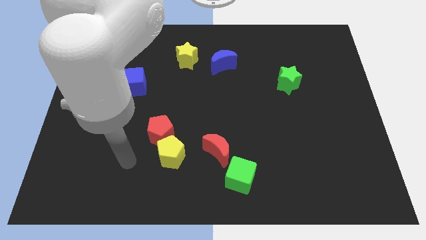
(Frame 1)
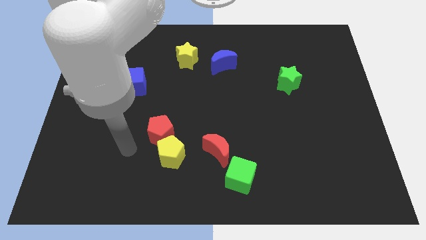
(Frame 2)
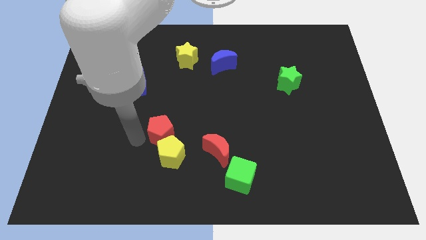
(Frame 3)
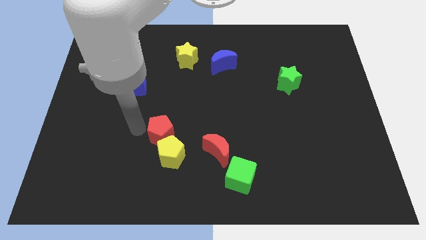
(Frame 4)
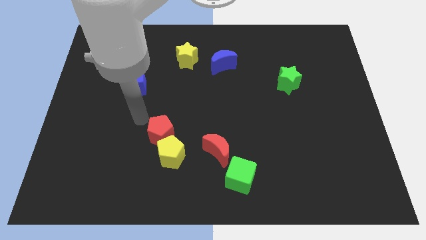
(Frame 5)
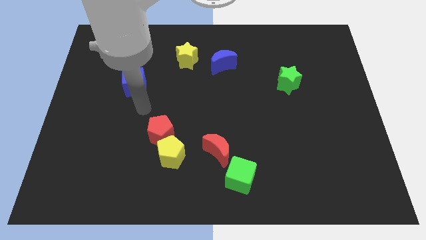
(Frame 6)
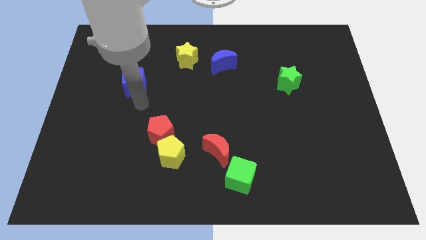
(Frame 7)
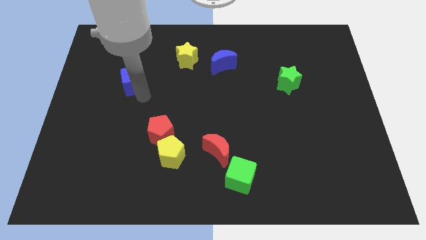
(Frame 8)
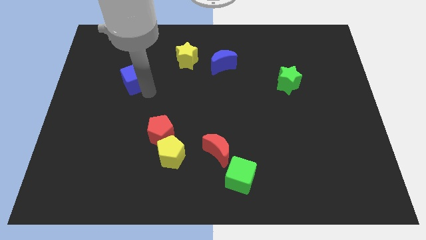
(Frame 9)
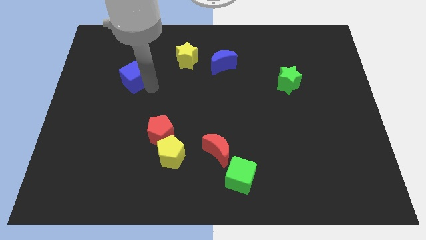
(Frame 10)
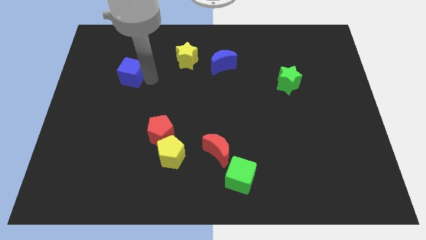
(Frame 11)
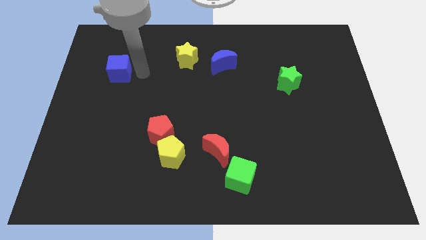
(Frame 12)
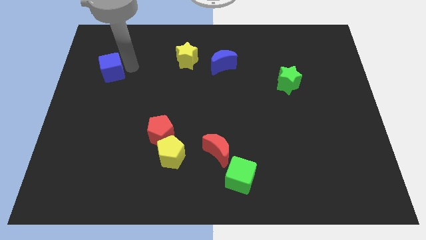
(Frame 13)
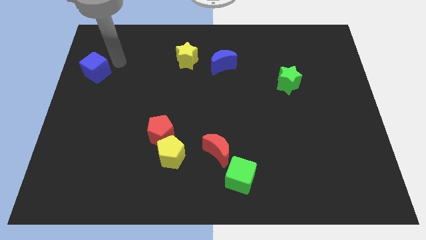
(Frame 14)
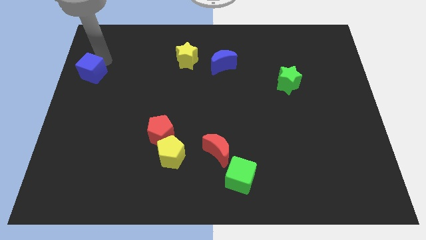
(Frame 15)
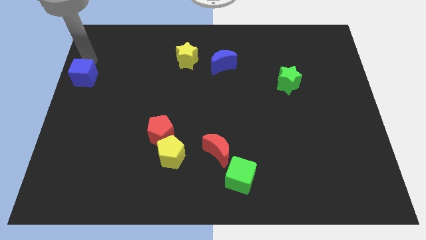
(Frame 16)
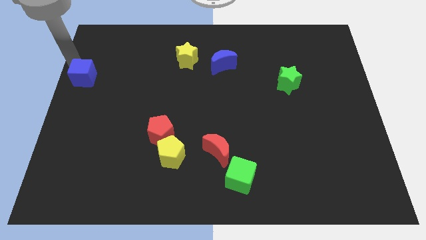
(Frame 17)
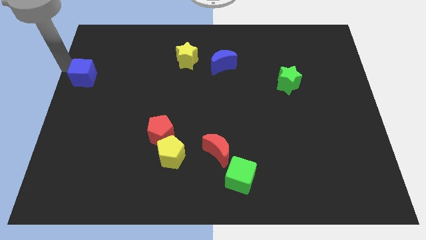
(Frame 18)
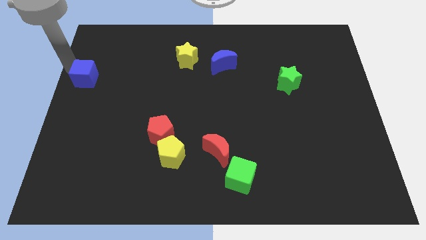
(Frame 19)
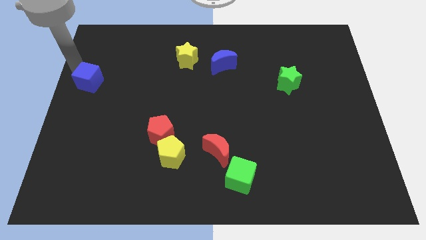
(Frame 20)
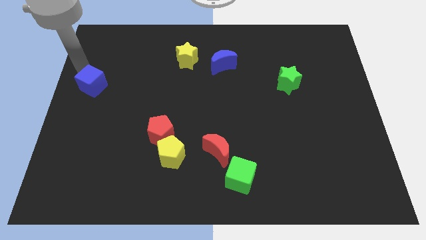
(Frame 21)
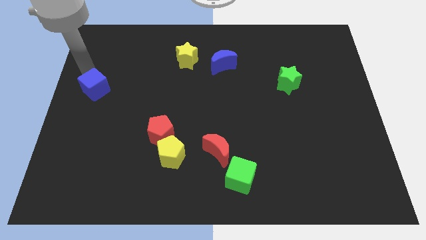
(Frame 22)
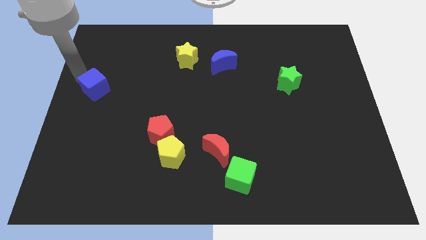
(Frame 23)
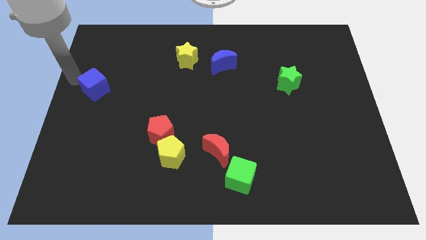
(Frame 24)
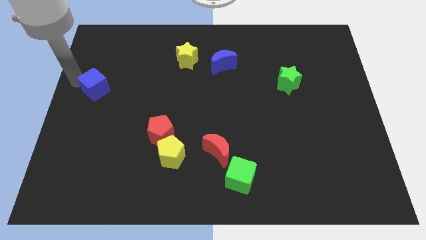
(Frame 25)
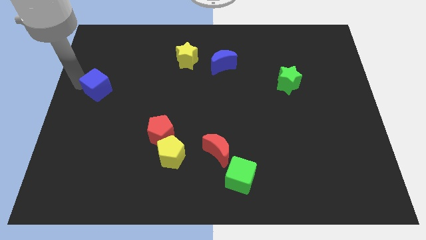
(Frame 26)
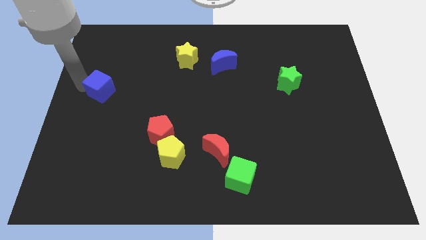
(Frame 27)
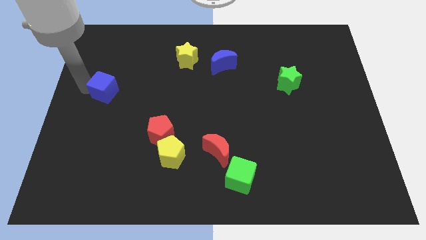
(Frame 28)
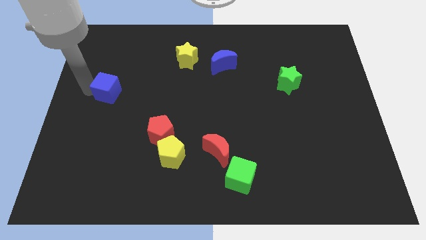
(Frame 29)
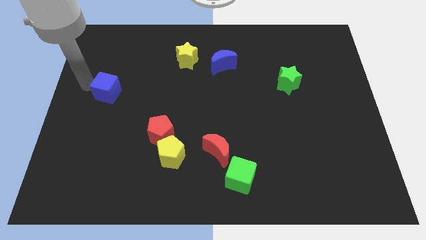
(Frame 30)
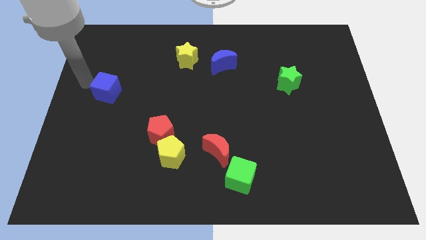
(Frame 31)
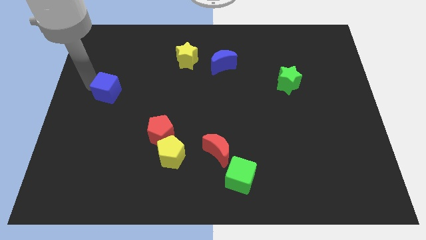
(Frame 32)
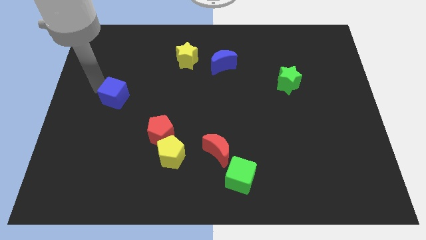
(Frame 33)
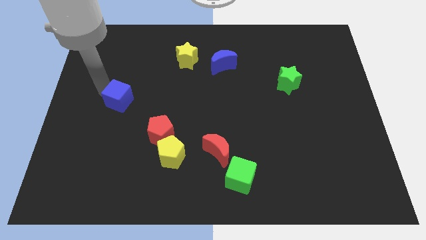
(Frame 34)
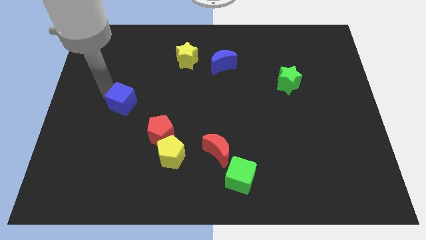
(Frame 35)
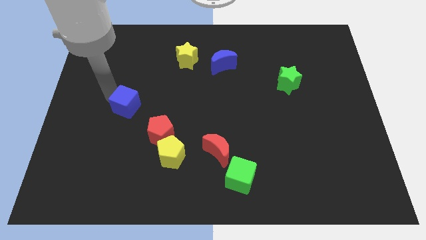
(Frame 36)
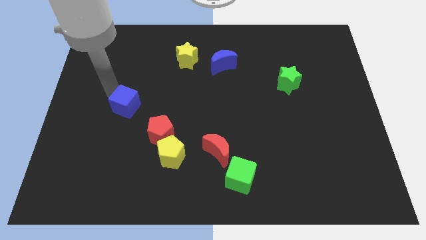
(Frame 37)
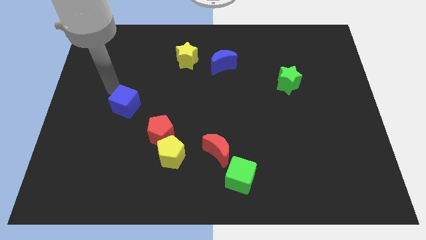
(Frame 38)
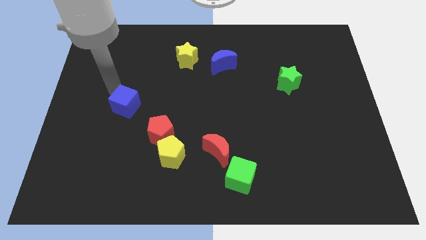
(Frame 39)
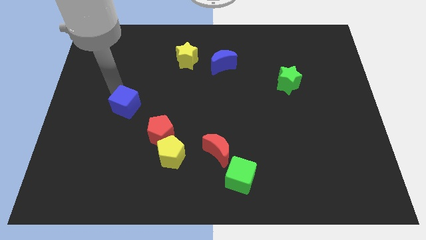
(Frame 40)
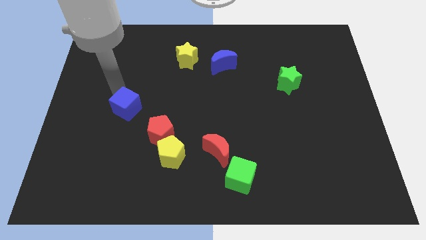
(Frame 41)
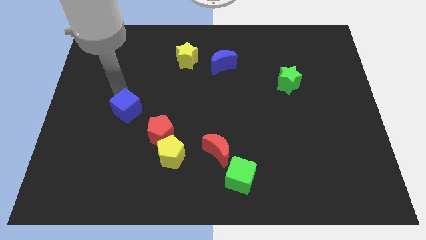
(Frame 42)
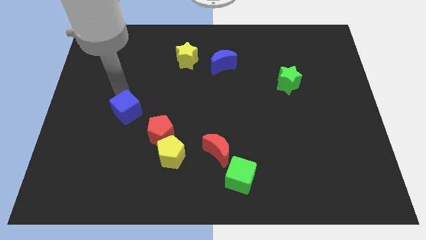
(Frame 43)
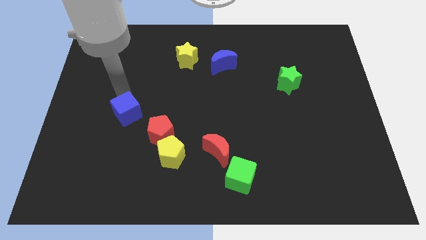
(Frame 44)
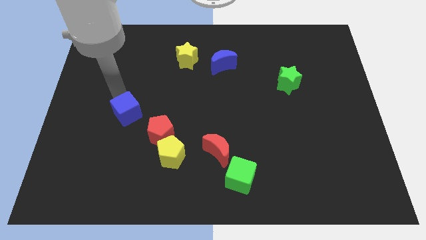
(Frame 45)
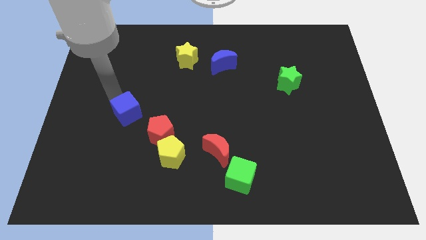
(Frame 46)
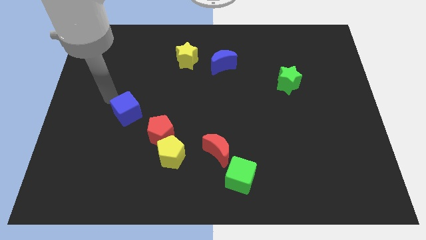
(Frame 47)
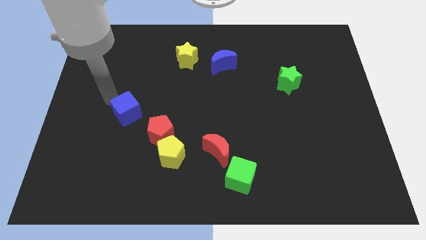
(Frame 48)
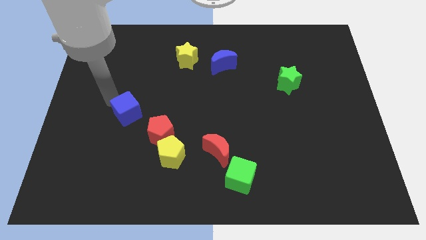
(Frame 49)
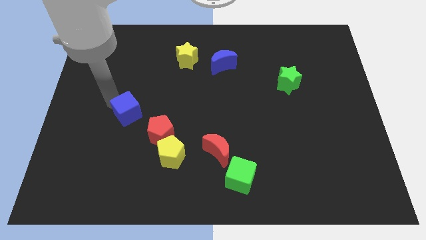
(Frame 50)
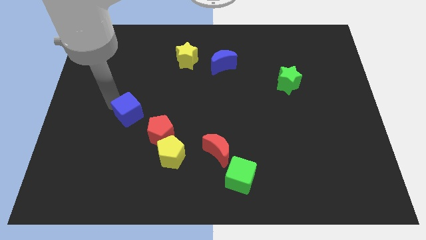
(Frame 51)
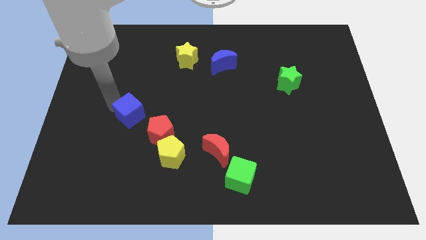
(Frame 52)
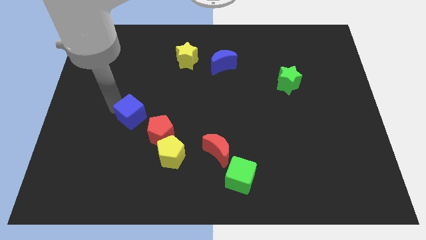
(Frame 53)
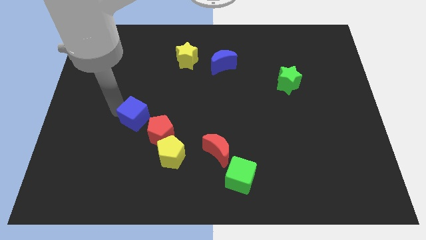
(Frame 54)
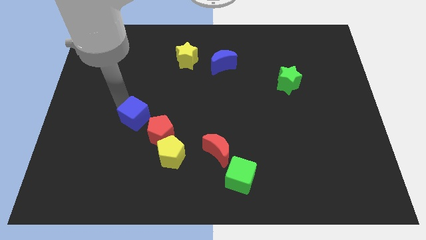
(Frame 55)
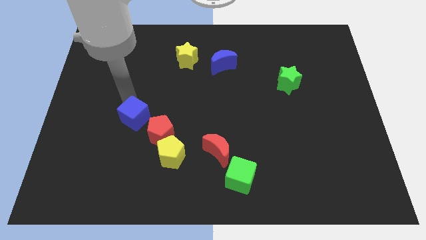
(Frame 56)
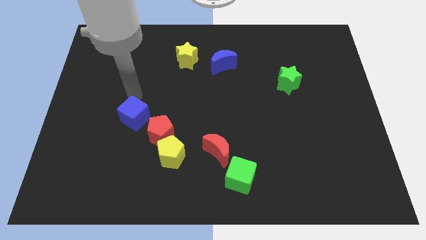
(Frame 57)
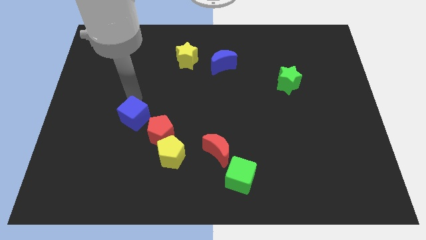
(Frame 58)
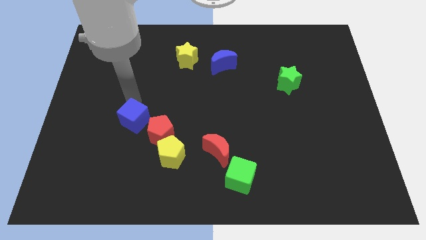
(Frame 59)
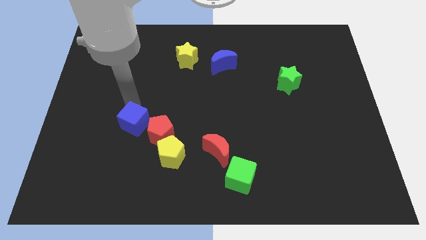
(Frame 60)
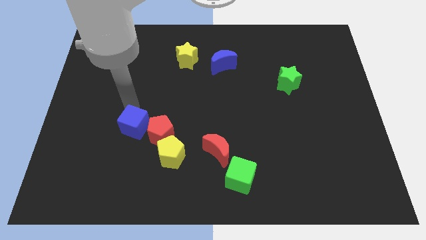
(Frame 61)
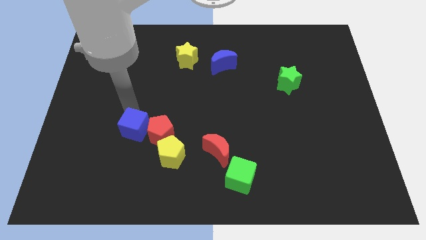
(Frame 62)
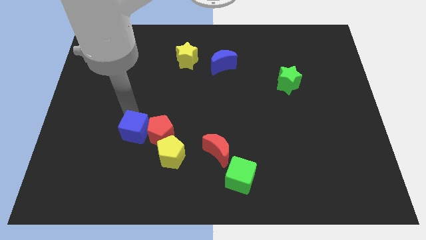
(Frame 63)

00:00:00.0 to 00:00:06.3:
put the blue cube to the bottom left of the red pentagon
